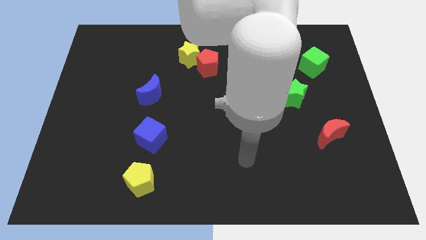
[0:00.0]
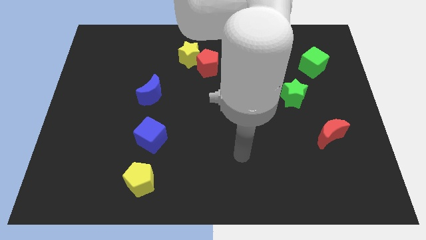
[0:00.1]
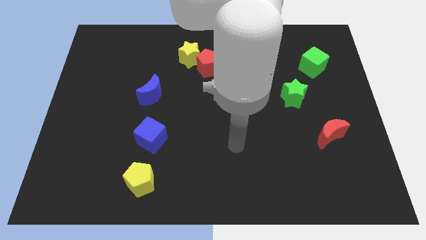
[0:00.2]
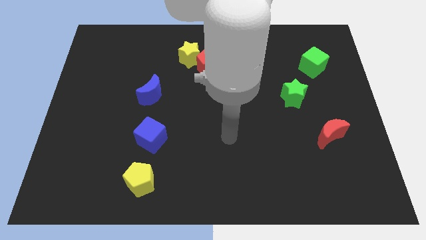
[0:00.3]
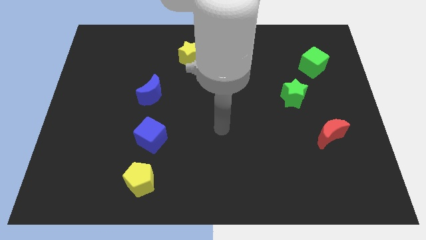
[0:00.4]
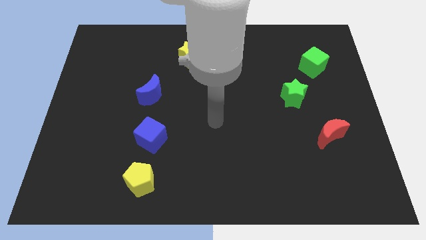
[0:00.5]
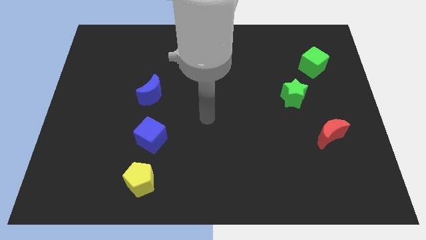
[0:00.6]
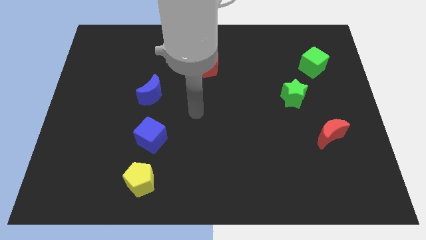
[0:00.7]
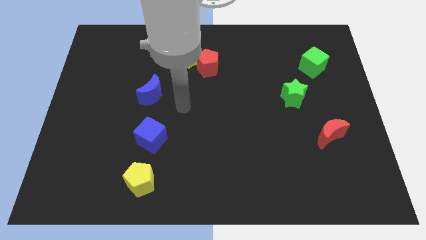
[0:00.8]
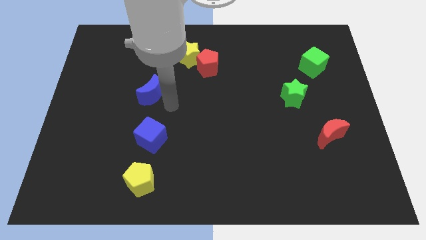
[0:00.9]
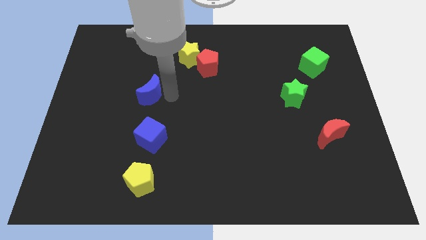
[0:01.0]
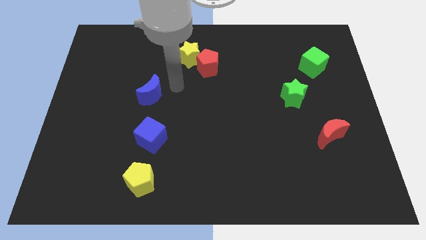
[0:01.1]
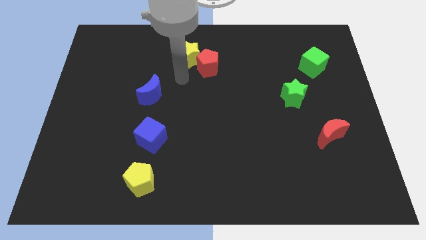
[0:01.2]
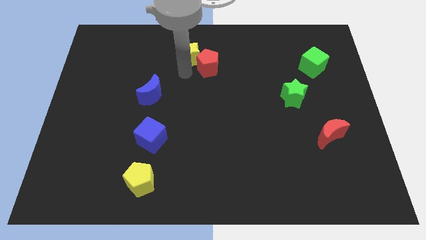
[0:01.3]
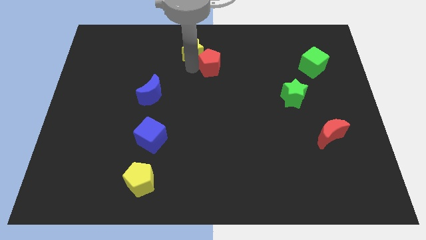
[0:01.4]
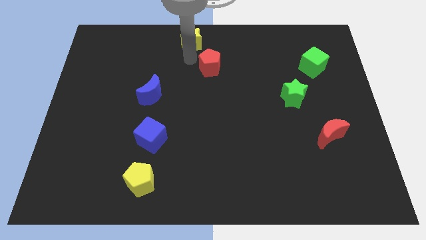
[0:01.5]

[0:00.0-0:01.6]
pull the red pentagon apart from the yellow star

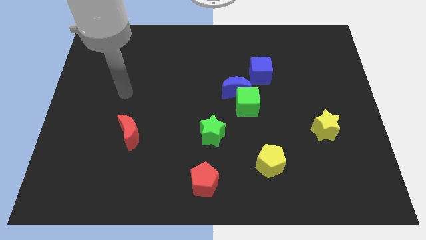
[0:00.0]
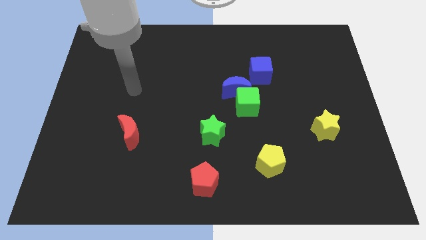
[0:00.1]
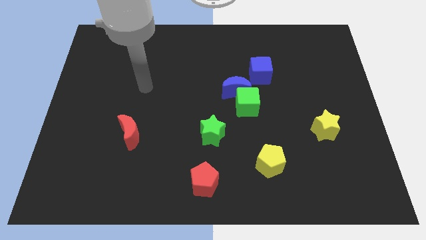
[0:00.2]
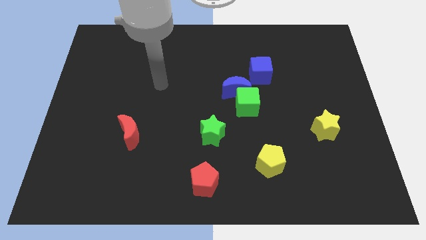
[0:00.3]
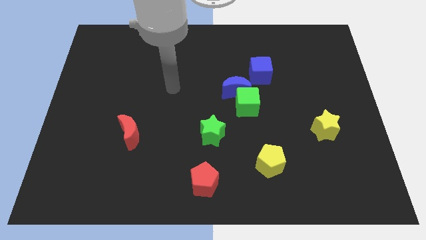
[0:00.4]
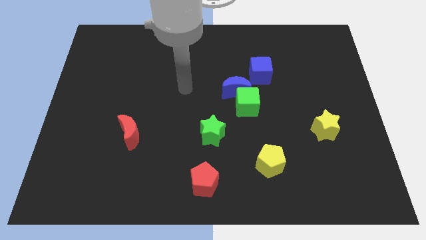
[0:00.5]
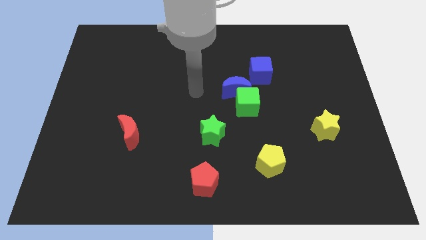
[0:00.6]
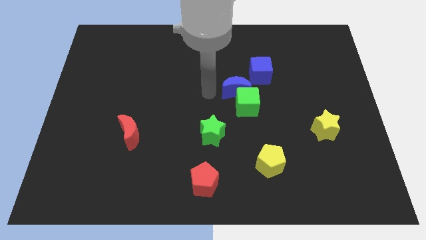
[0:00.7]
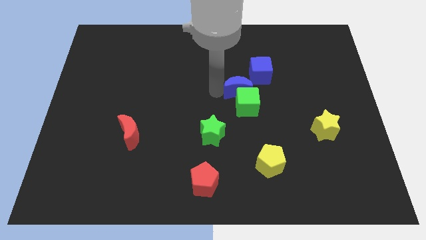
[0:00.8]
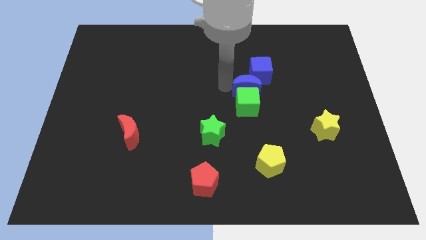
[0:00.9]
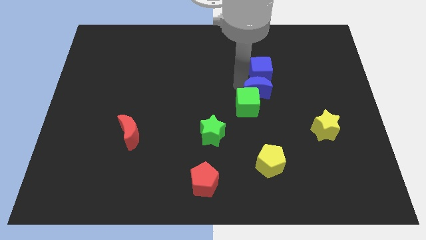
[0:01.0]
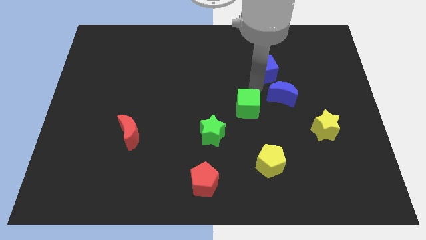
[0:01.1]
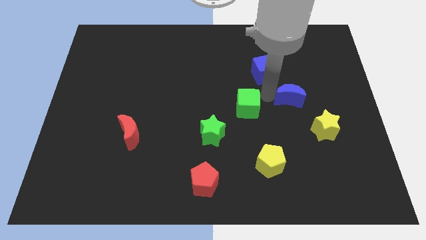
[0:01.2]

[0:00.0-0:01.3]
pull the green cube apart from the blue moon

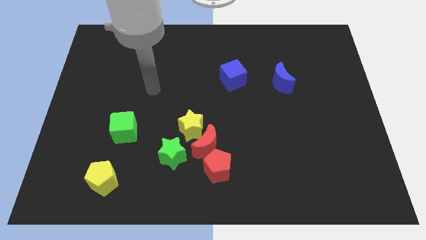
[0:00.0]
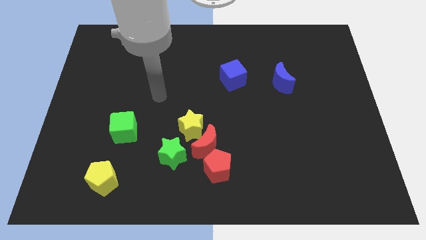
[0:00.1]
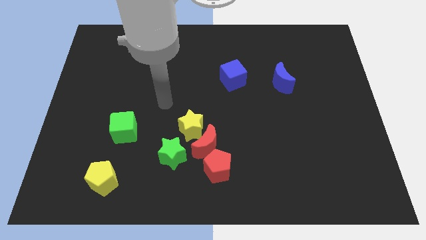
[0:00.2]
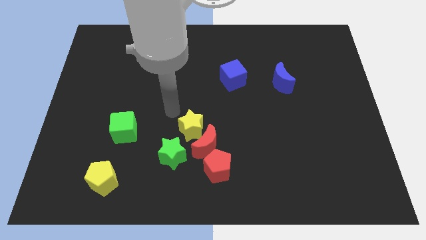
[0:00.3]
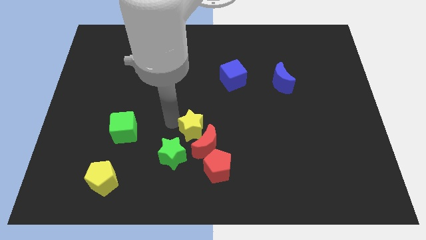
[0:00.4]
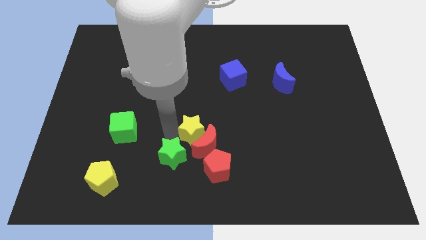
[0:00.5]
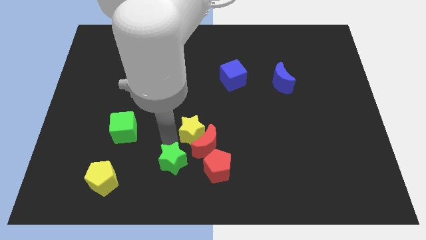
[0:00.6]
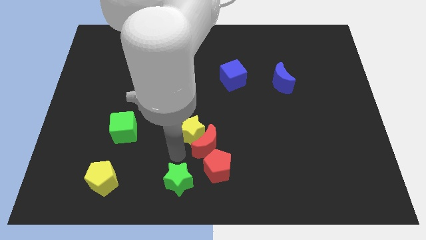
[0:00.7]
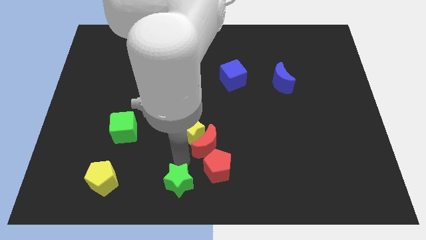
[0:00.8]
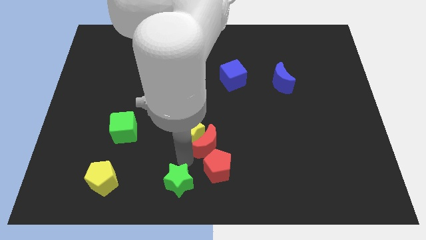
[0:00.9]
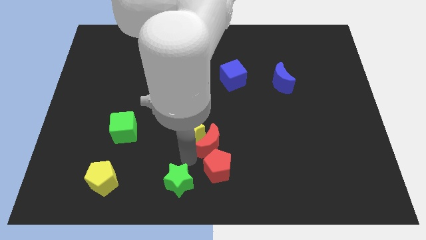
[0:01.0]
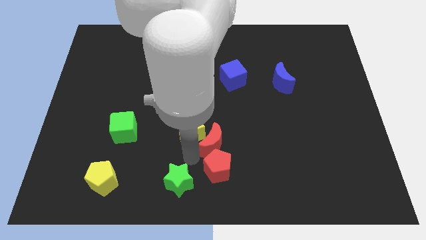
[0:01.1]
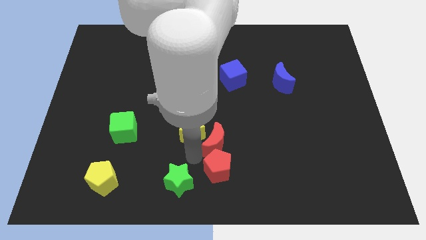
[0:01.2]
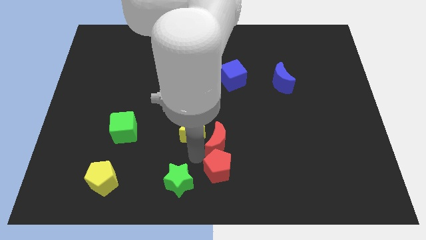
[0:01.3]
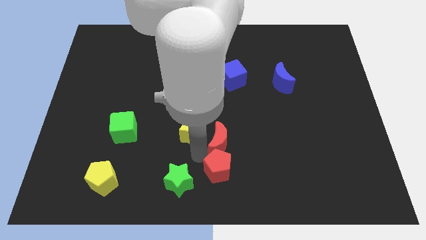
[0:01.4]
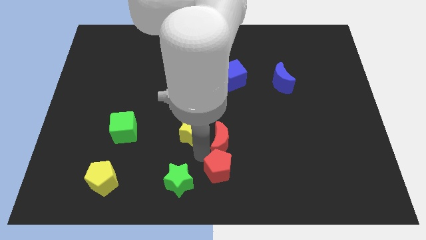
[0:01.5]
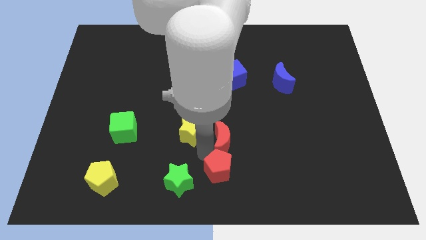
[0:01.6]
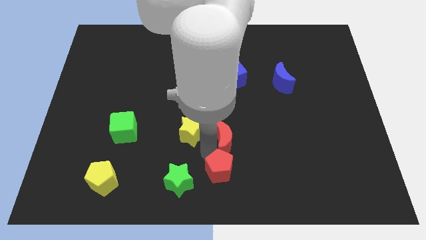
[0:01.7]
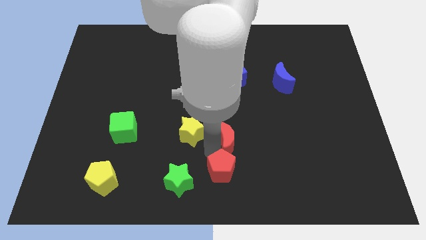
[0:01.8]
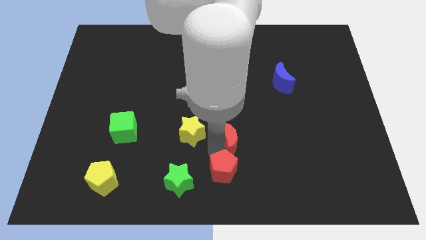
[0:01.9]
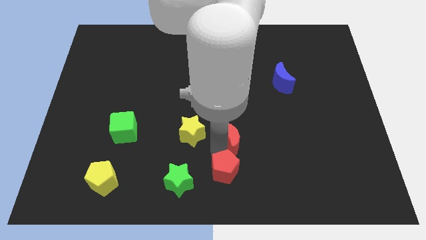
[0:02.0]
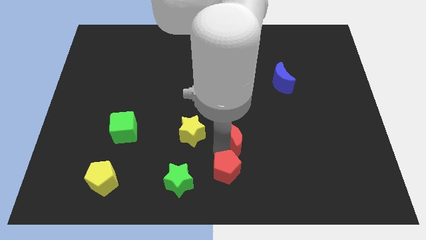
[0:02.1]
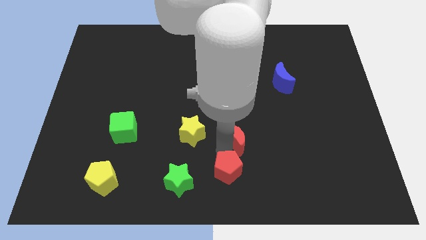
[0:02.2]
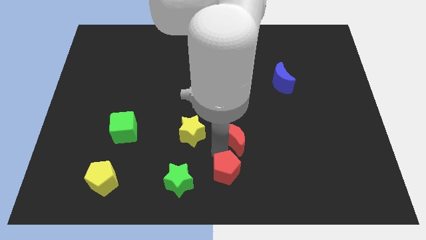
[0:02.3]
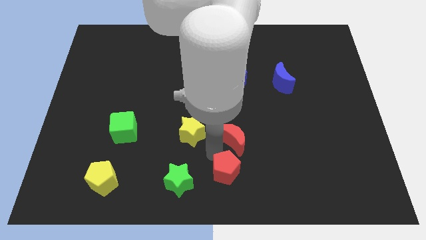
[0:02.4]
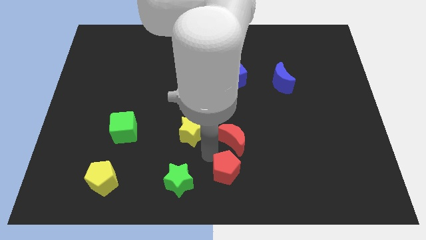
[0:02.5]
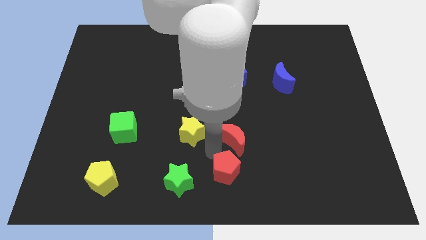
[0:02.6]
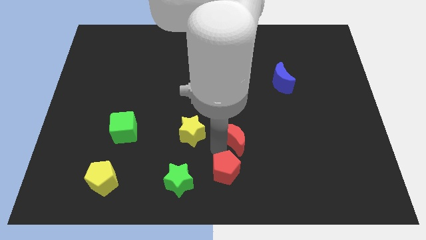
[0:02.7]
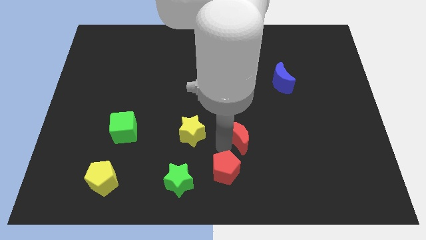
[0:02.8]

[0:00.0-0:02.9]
pull the red moon apart from the yellow star, red pentagon, and green star

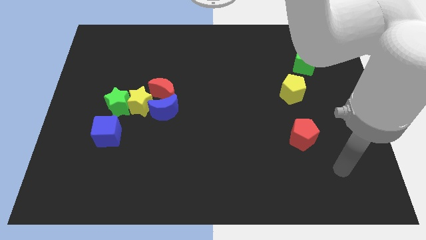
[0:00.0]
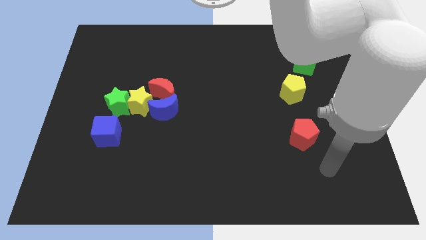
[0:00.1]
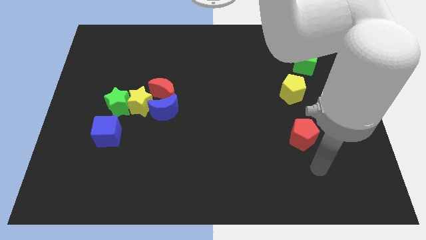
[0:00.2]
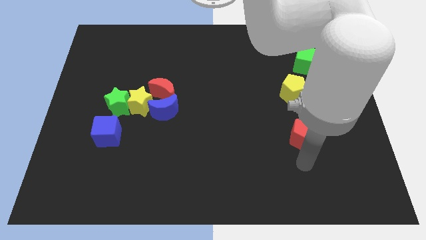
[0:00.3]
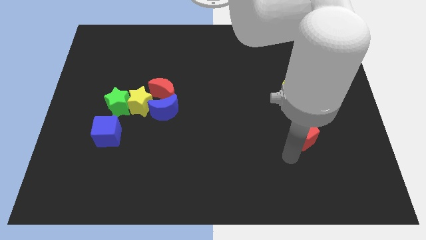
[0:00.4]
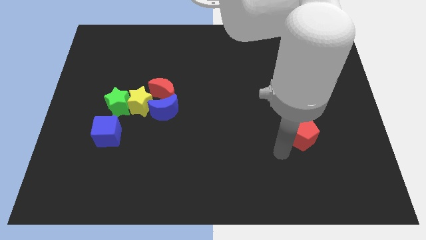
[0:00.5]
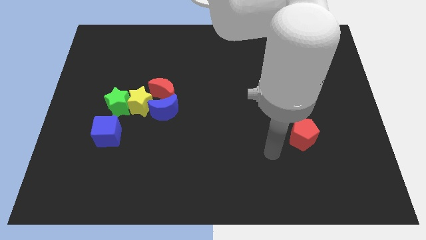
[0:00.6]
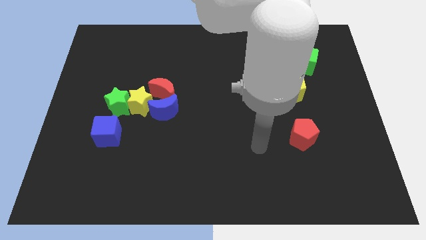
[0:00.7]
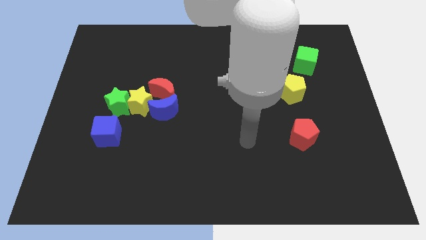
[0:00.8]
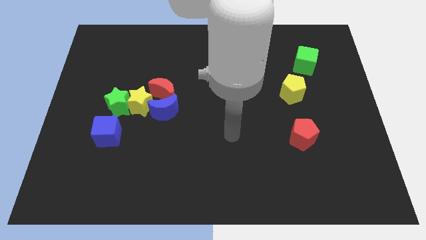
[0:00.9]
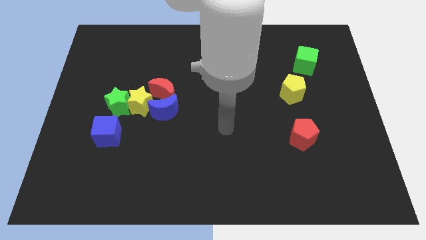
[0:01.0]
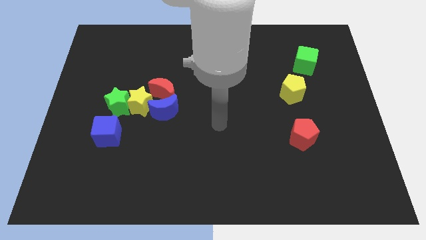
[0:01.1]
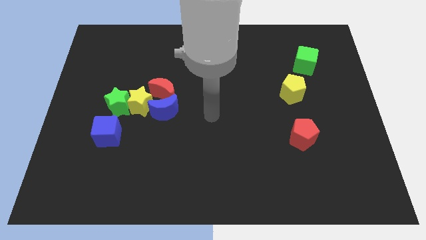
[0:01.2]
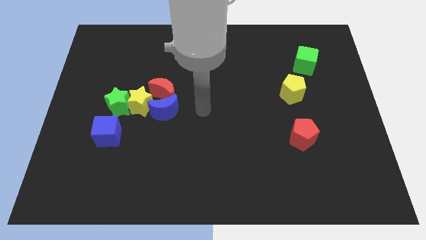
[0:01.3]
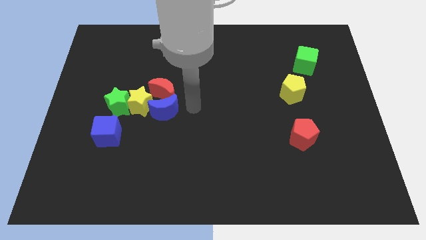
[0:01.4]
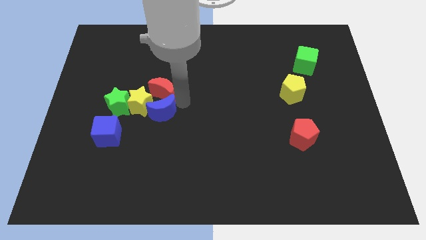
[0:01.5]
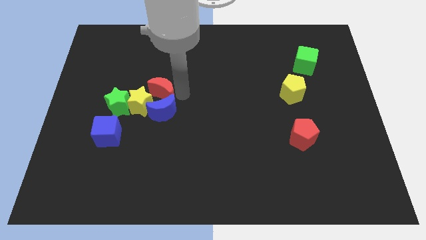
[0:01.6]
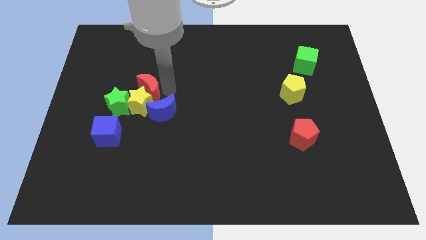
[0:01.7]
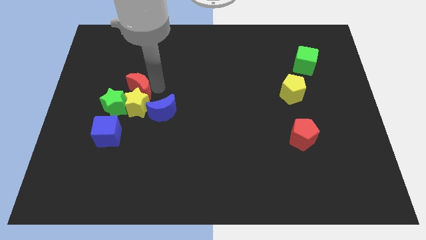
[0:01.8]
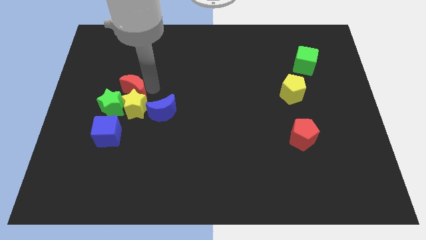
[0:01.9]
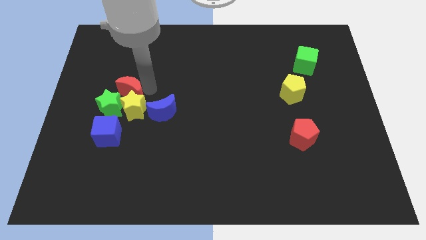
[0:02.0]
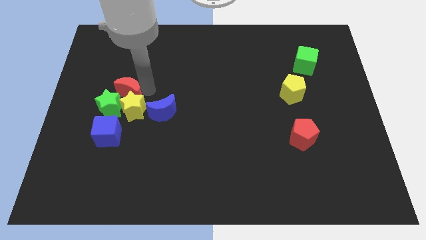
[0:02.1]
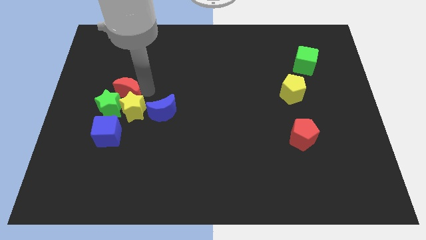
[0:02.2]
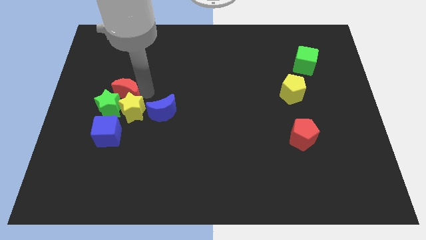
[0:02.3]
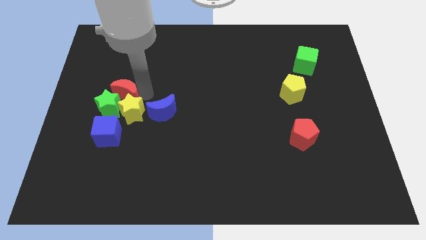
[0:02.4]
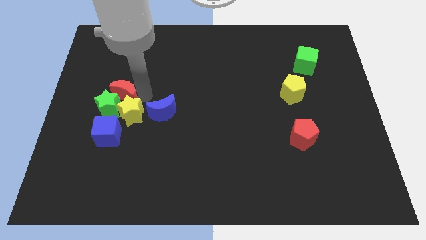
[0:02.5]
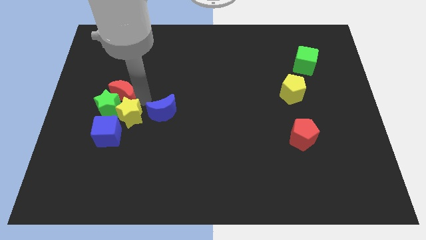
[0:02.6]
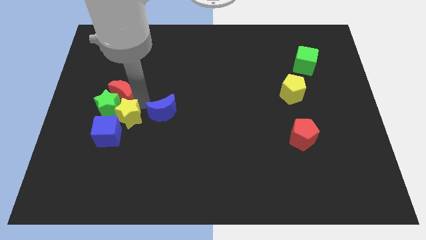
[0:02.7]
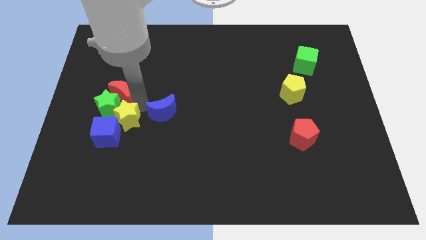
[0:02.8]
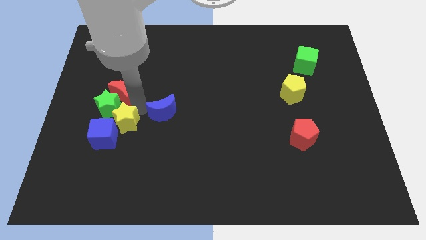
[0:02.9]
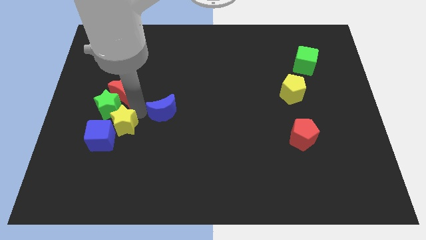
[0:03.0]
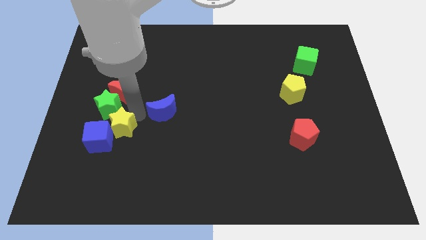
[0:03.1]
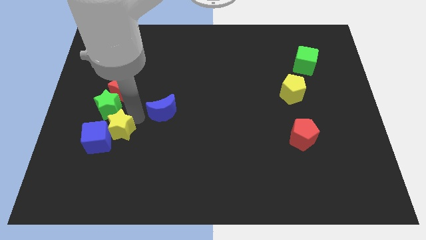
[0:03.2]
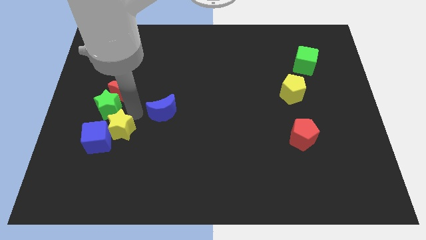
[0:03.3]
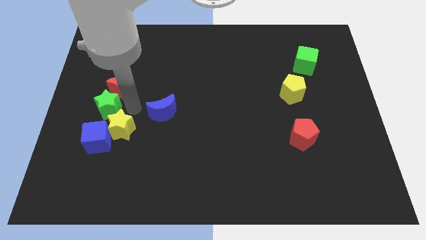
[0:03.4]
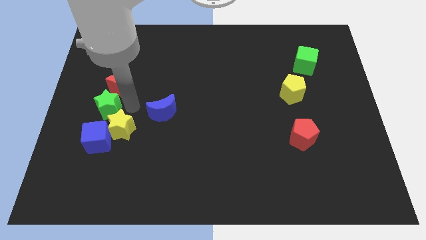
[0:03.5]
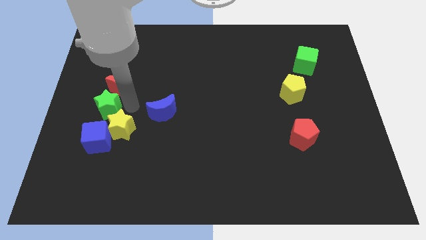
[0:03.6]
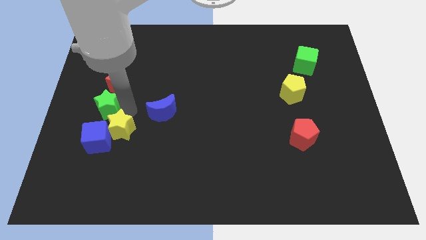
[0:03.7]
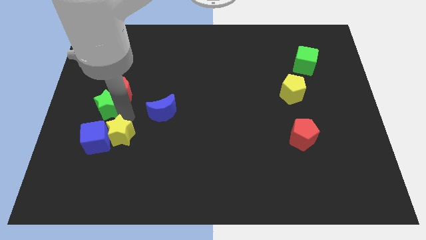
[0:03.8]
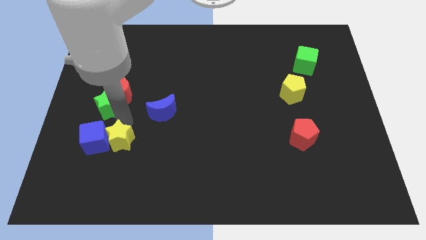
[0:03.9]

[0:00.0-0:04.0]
separate the yellow star from the green star, blue moon, and red moon
